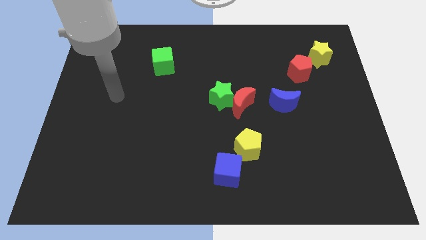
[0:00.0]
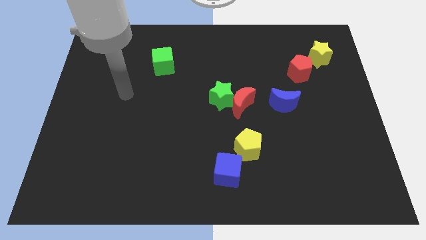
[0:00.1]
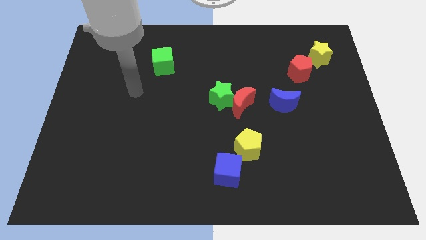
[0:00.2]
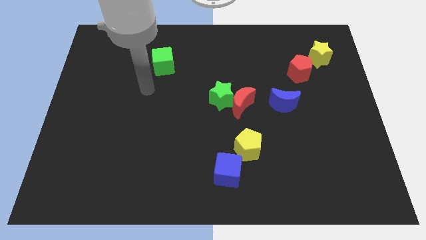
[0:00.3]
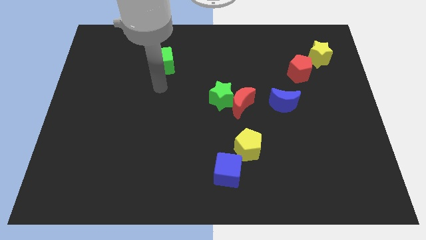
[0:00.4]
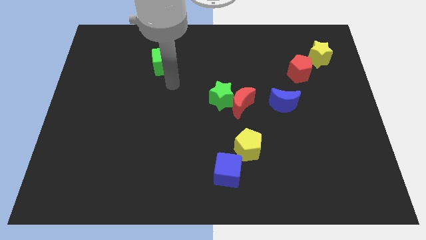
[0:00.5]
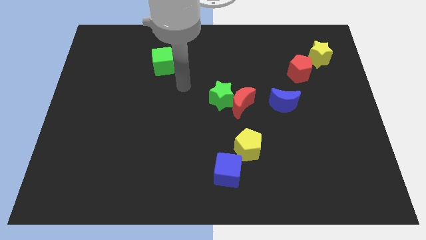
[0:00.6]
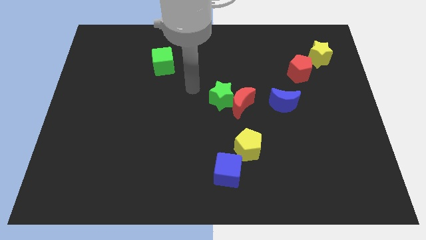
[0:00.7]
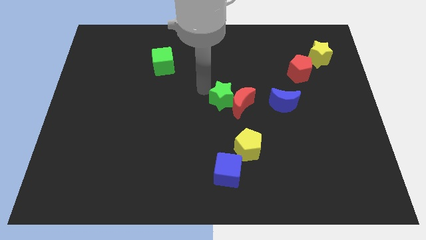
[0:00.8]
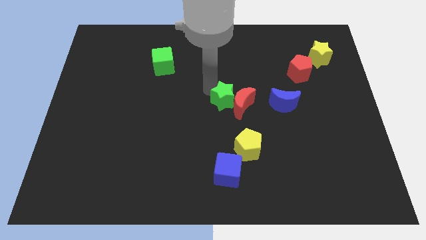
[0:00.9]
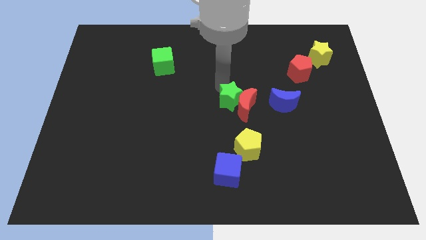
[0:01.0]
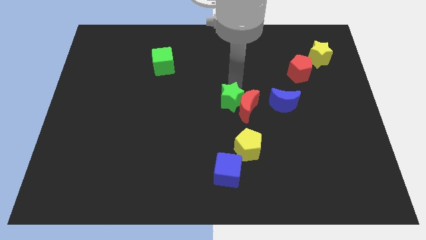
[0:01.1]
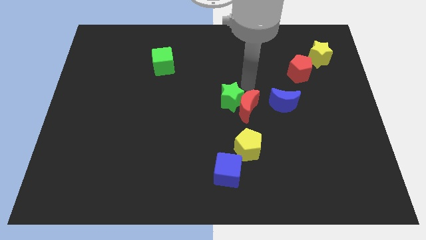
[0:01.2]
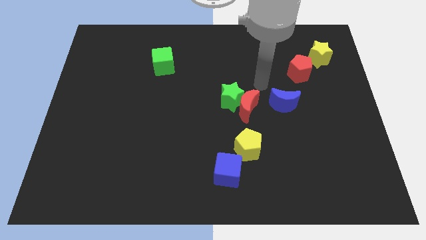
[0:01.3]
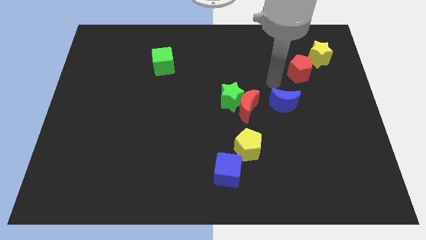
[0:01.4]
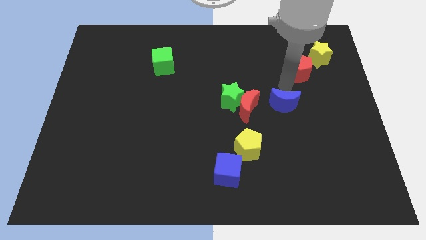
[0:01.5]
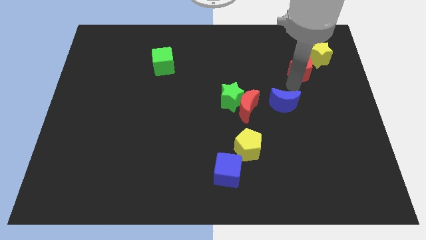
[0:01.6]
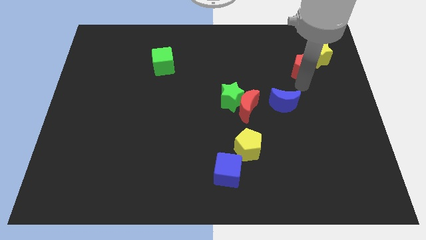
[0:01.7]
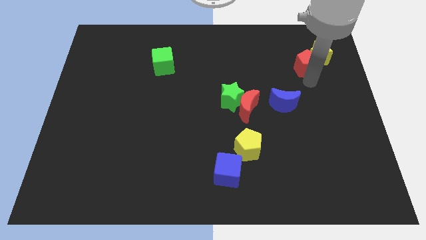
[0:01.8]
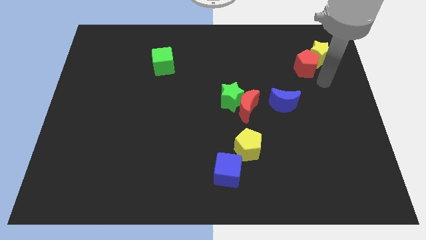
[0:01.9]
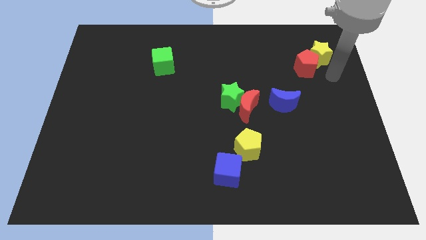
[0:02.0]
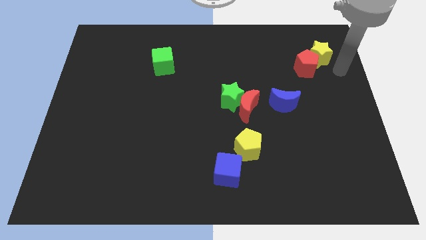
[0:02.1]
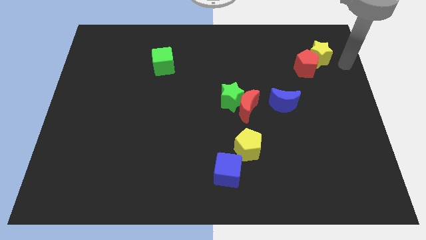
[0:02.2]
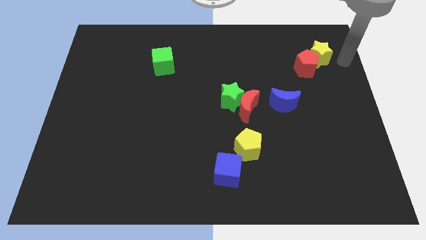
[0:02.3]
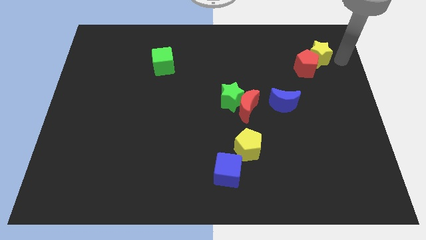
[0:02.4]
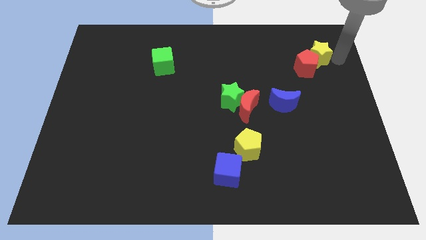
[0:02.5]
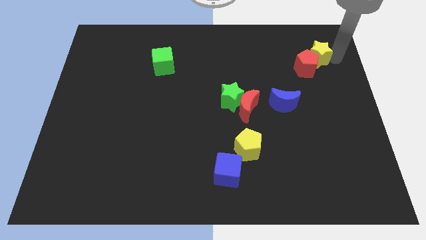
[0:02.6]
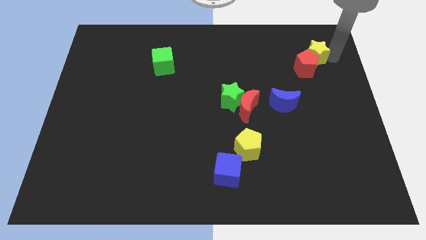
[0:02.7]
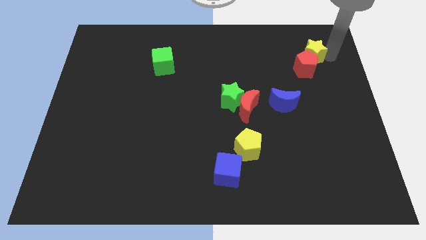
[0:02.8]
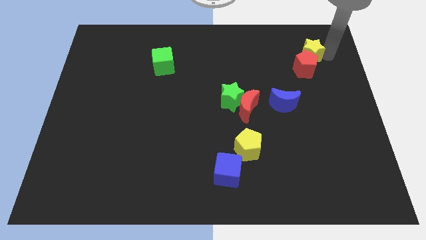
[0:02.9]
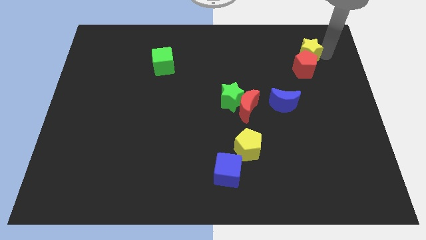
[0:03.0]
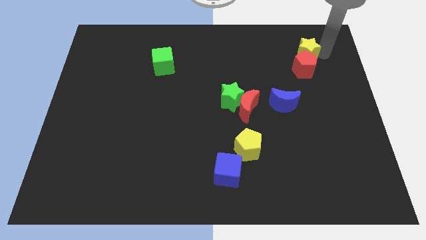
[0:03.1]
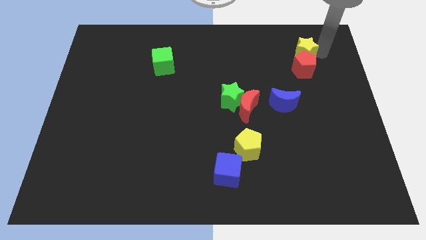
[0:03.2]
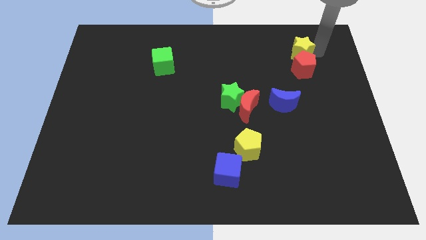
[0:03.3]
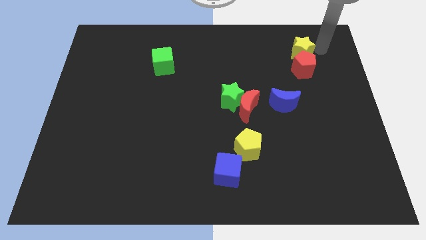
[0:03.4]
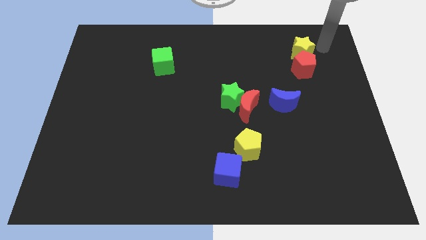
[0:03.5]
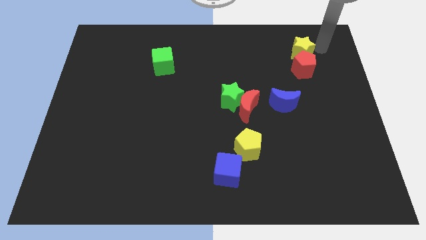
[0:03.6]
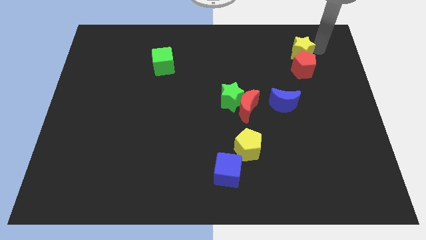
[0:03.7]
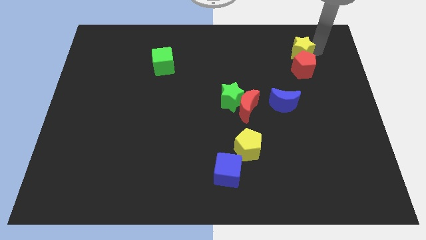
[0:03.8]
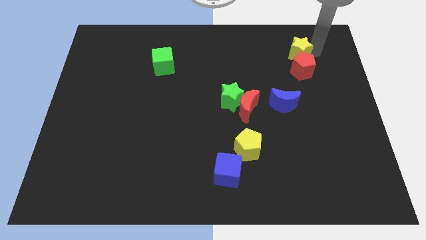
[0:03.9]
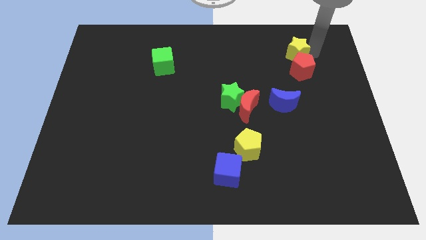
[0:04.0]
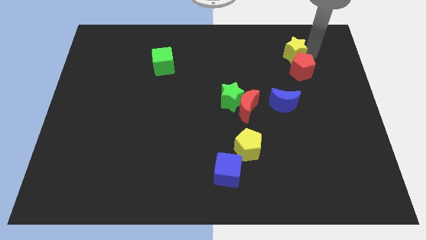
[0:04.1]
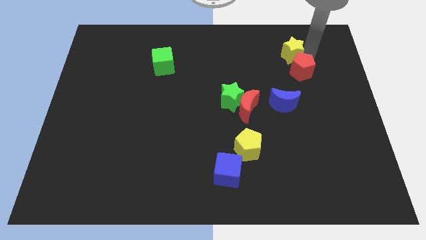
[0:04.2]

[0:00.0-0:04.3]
slide the yellow star left slightly

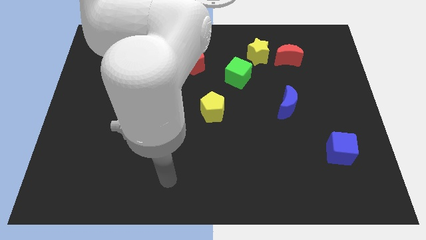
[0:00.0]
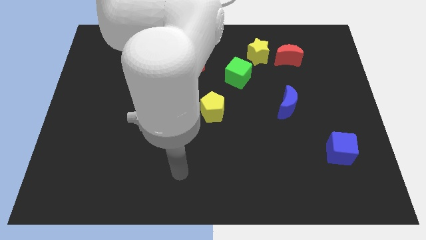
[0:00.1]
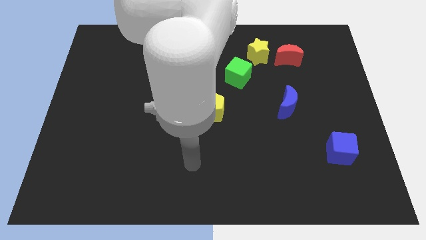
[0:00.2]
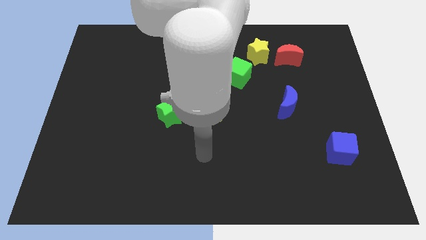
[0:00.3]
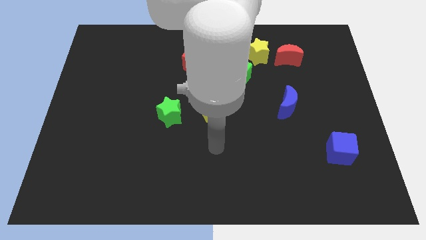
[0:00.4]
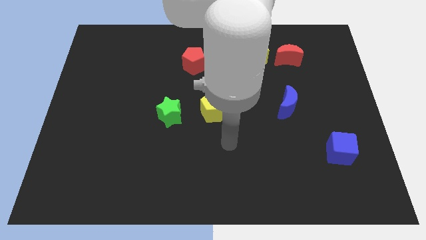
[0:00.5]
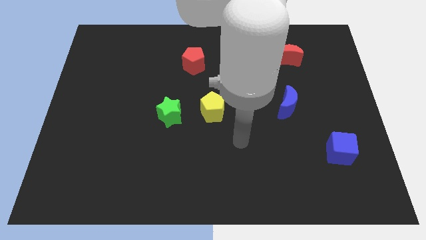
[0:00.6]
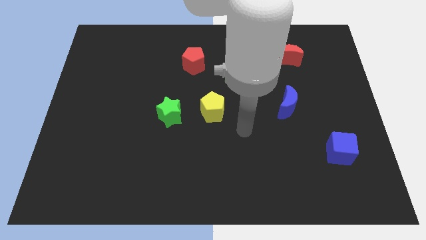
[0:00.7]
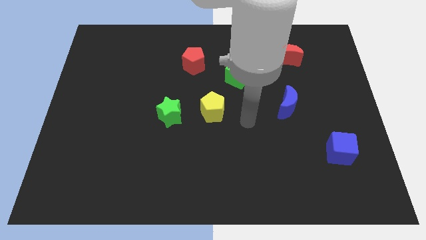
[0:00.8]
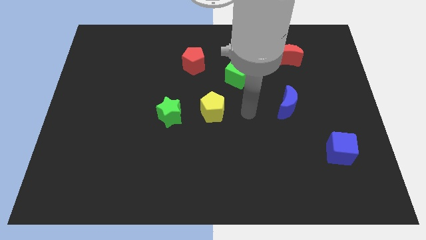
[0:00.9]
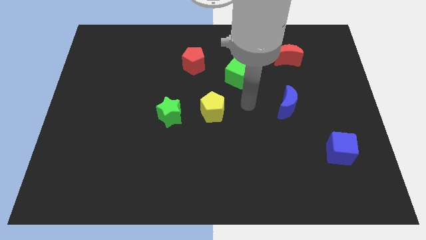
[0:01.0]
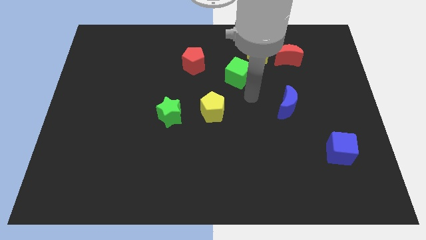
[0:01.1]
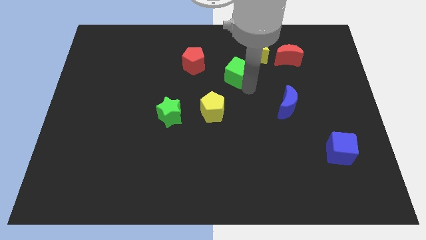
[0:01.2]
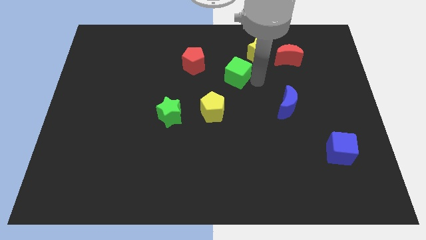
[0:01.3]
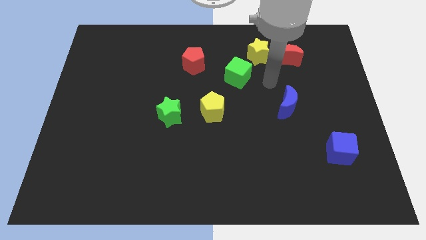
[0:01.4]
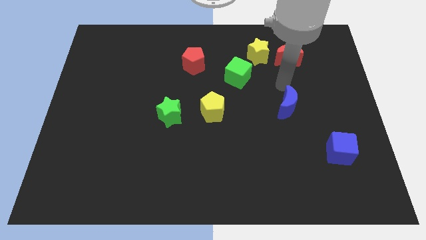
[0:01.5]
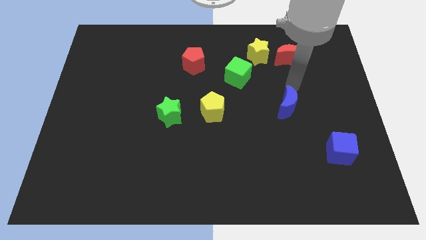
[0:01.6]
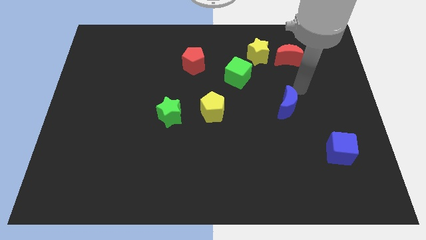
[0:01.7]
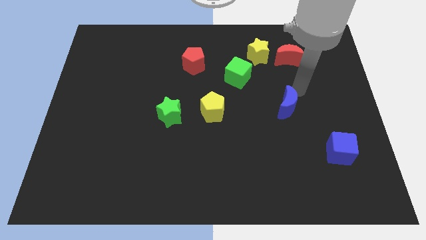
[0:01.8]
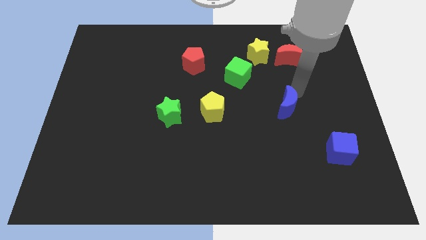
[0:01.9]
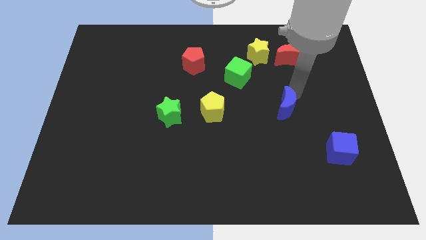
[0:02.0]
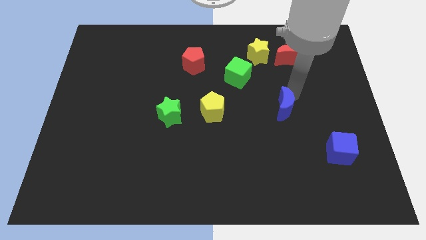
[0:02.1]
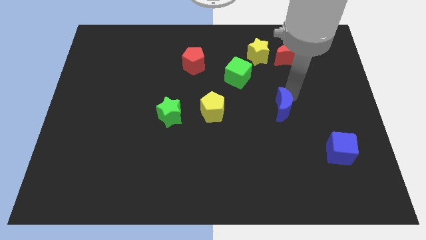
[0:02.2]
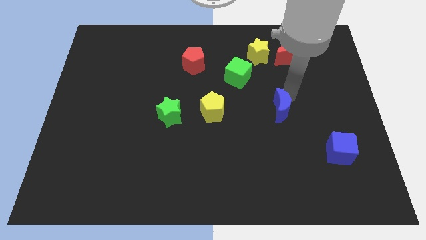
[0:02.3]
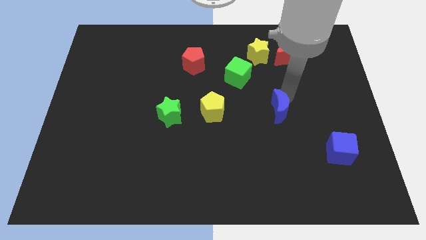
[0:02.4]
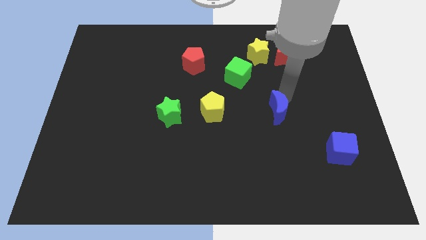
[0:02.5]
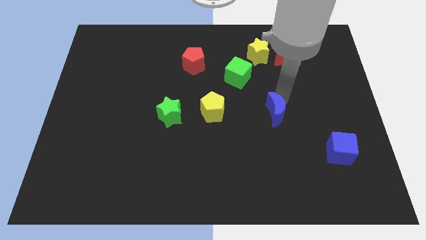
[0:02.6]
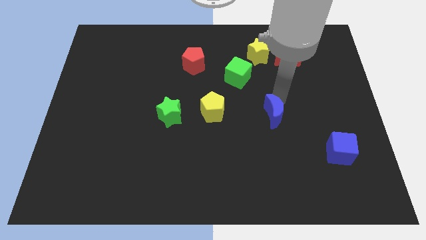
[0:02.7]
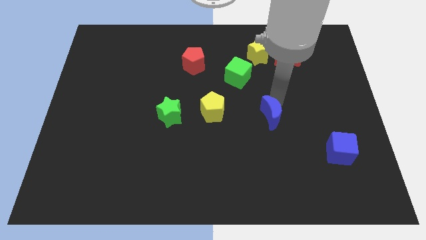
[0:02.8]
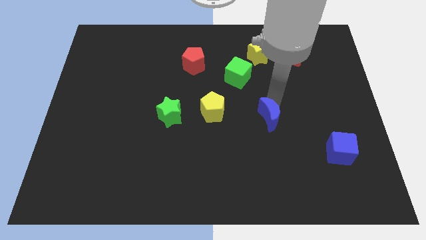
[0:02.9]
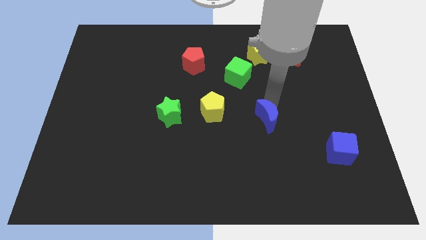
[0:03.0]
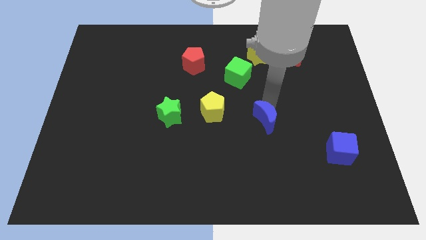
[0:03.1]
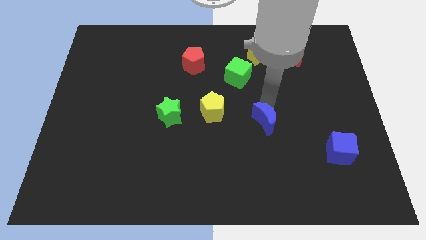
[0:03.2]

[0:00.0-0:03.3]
move the blue moon downwards and to the left a little

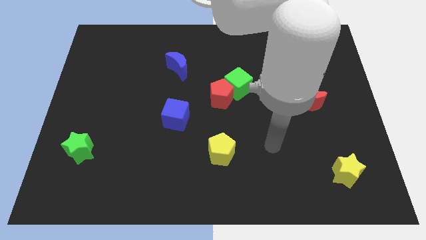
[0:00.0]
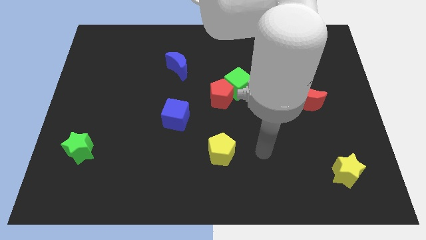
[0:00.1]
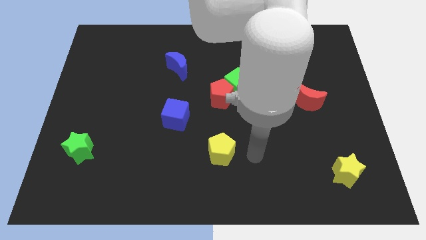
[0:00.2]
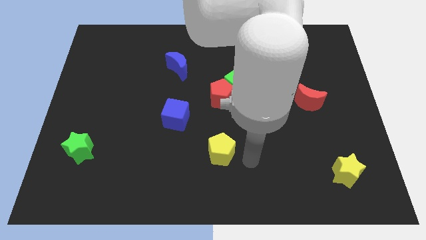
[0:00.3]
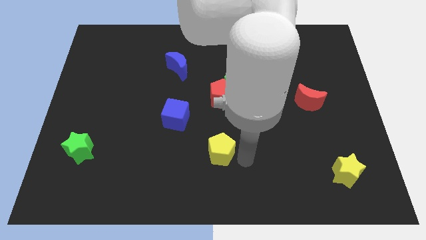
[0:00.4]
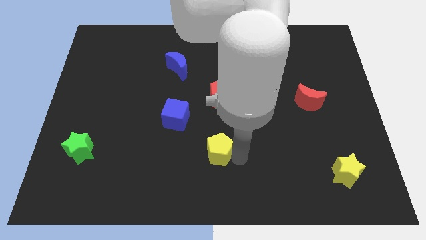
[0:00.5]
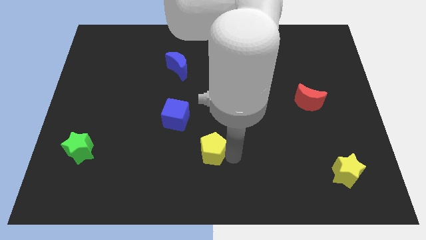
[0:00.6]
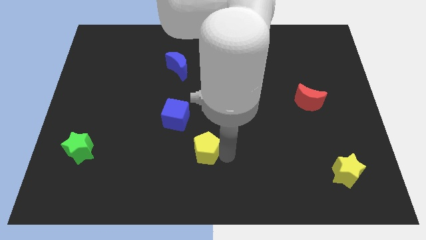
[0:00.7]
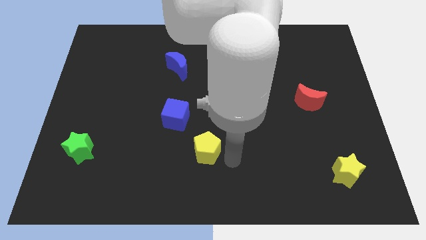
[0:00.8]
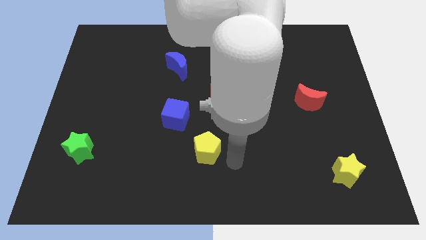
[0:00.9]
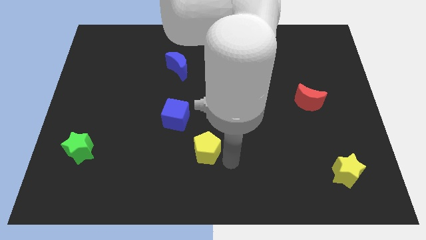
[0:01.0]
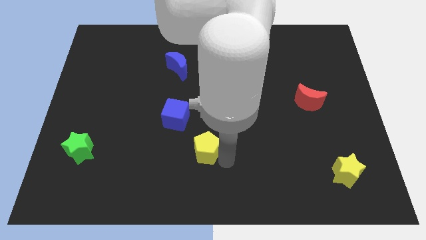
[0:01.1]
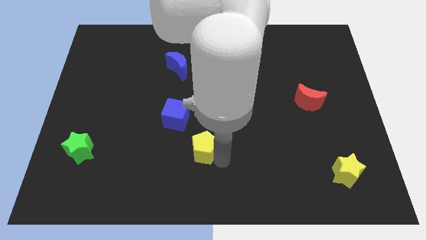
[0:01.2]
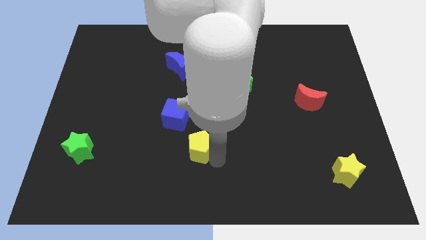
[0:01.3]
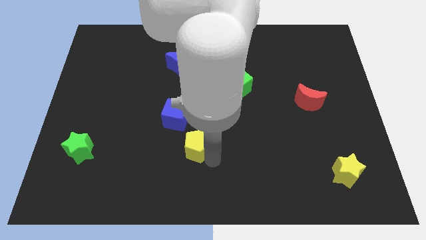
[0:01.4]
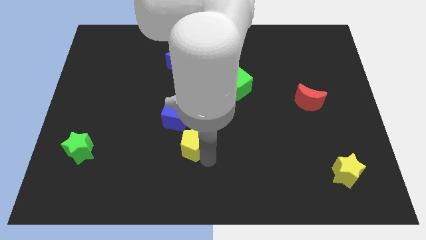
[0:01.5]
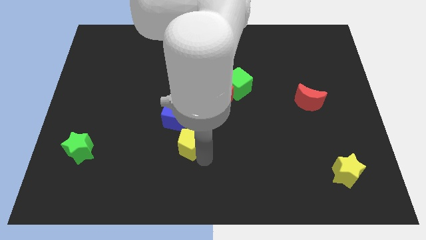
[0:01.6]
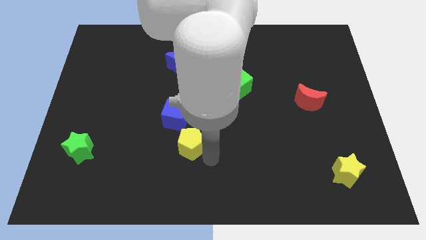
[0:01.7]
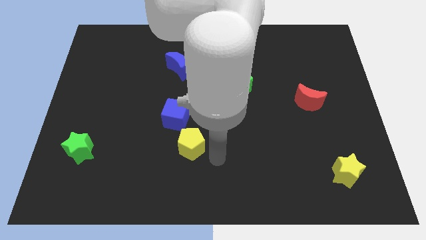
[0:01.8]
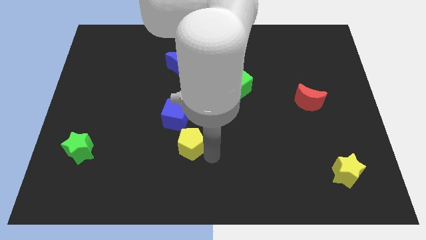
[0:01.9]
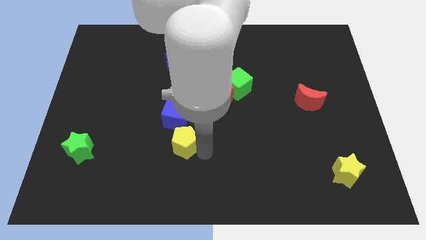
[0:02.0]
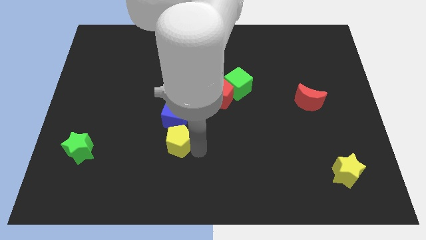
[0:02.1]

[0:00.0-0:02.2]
slightly slide the yellow pentagon upwards and left
